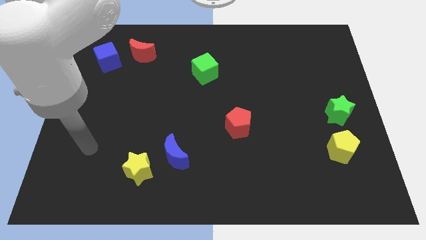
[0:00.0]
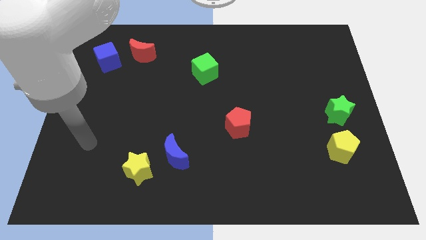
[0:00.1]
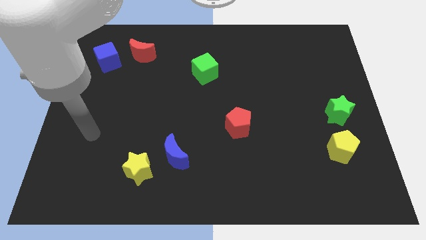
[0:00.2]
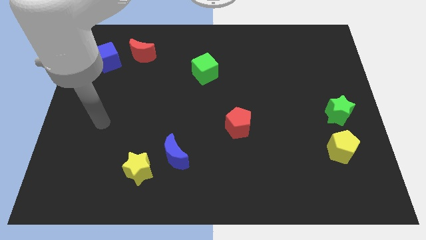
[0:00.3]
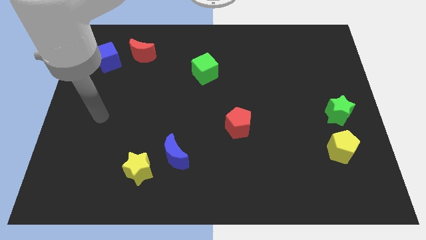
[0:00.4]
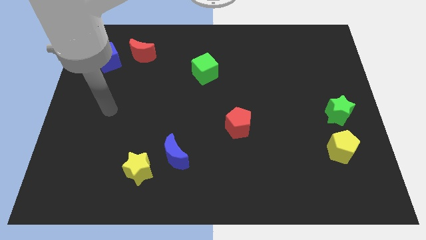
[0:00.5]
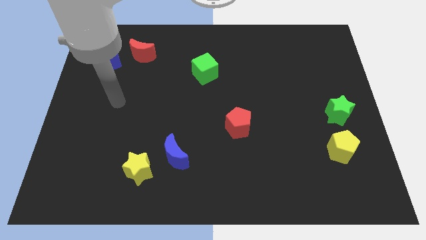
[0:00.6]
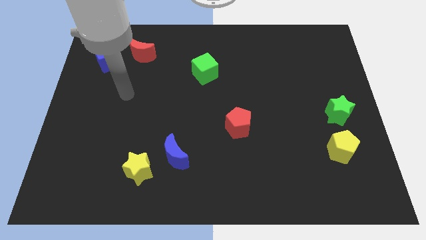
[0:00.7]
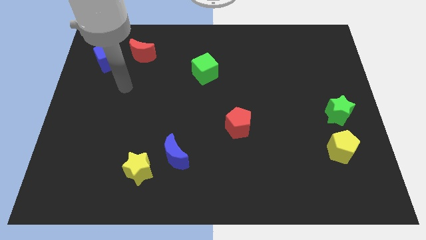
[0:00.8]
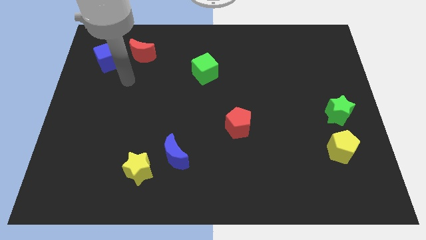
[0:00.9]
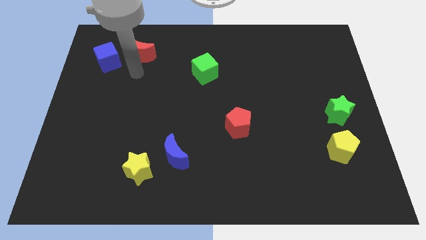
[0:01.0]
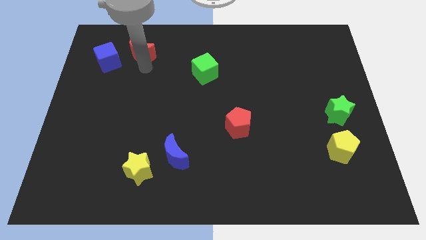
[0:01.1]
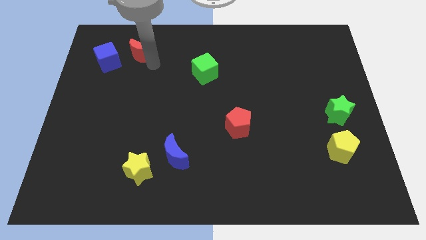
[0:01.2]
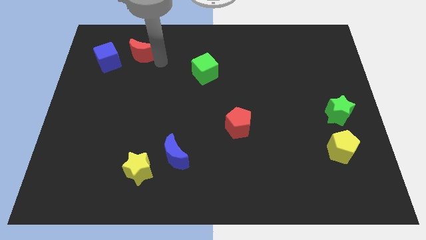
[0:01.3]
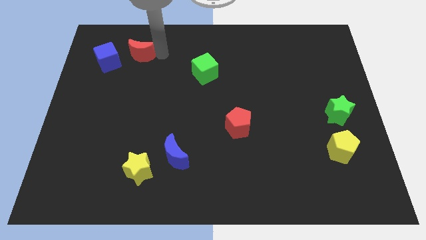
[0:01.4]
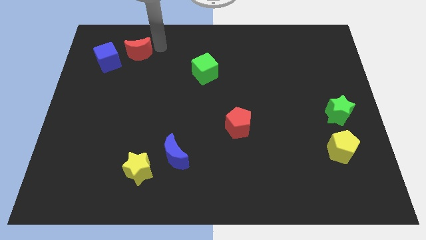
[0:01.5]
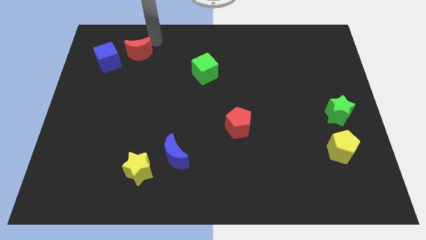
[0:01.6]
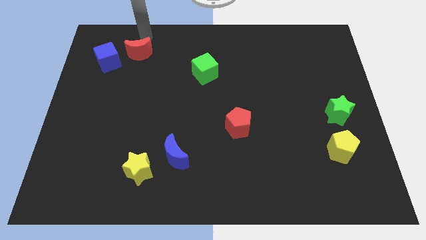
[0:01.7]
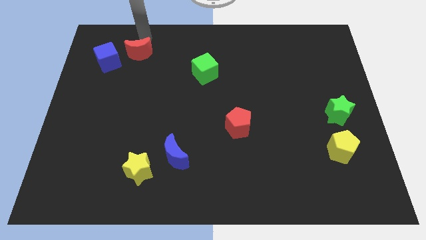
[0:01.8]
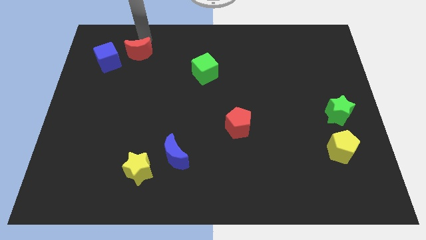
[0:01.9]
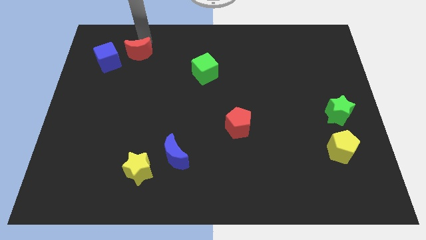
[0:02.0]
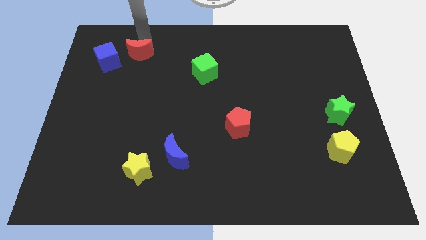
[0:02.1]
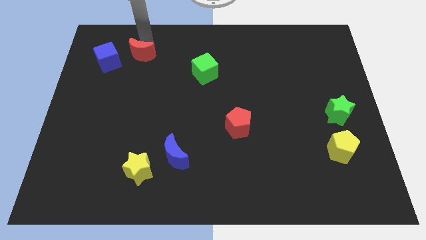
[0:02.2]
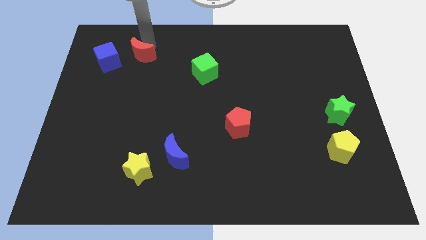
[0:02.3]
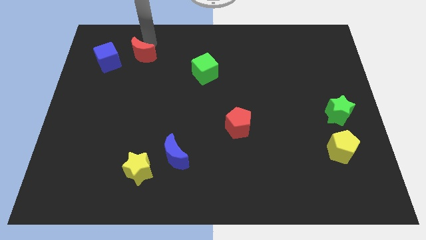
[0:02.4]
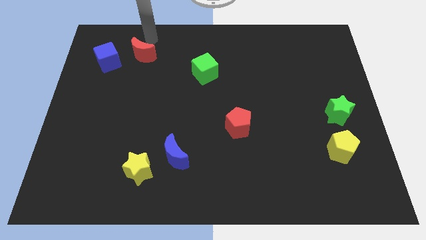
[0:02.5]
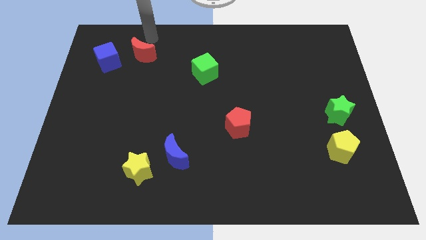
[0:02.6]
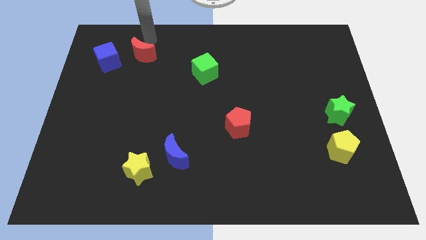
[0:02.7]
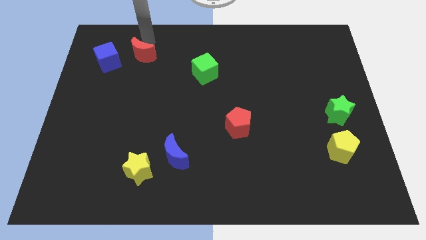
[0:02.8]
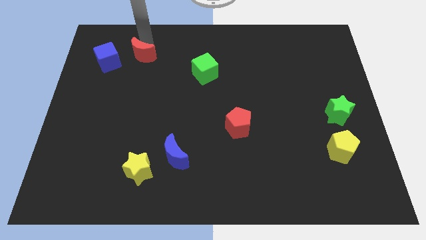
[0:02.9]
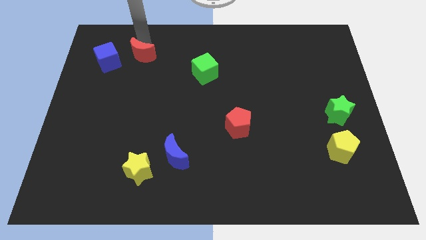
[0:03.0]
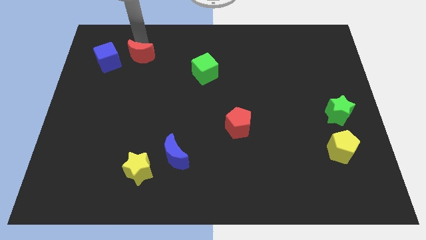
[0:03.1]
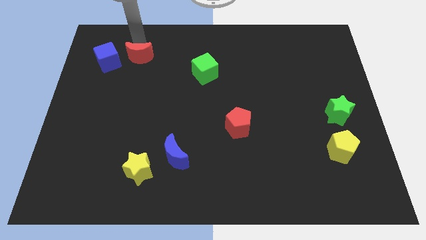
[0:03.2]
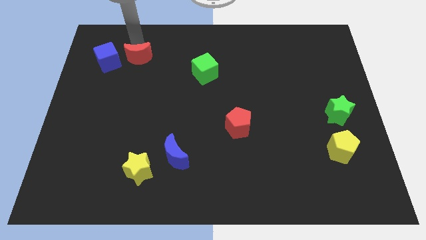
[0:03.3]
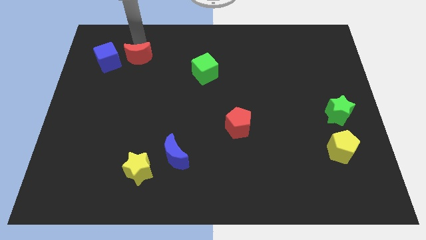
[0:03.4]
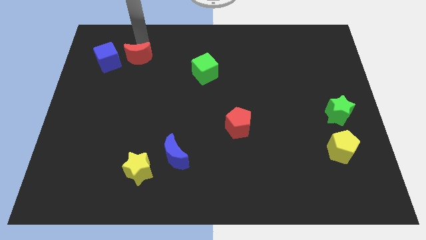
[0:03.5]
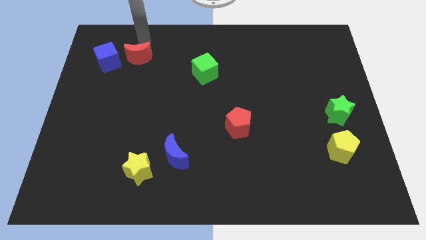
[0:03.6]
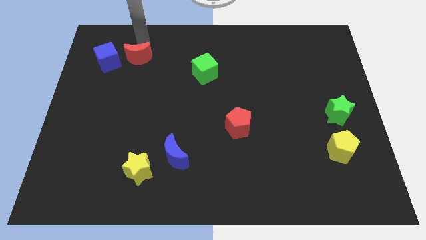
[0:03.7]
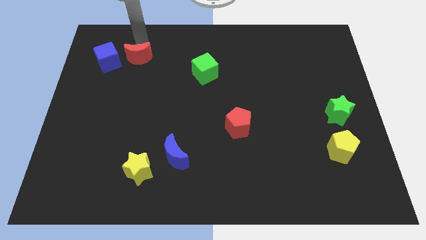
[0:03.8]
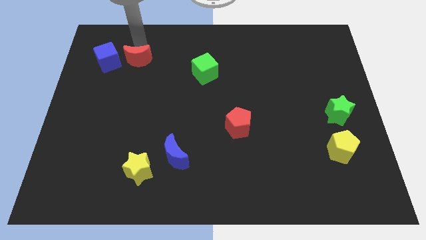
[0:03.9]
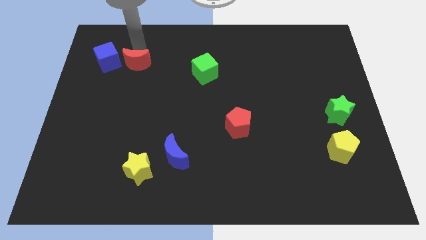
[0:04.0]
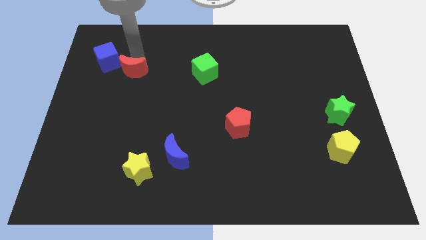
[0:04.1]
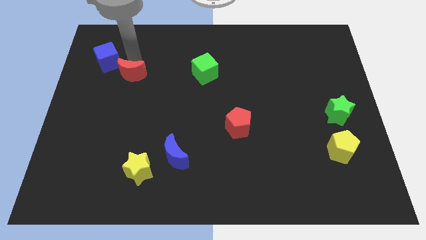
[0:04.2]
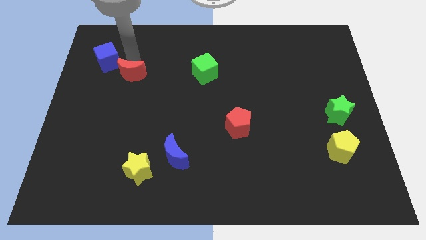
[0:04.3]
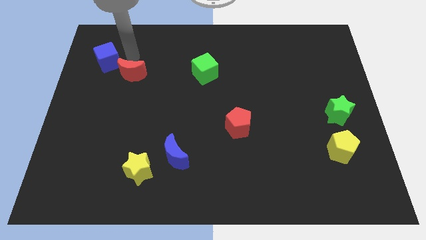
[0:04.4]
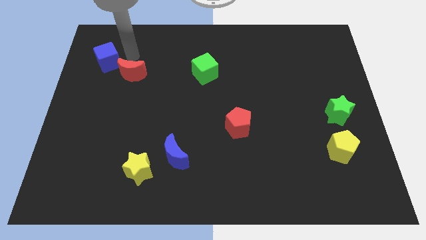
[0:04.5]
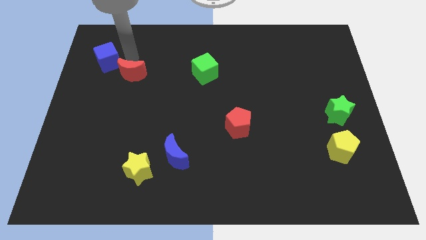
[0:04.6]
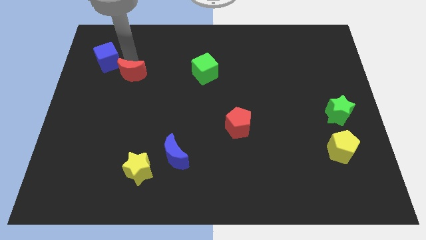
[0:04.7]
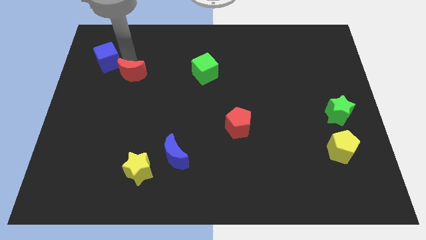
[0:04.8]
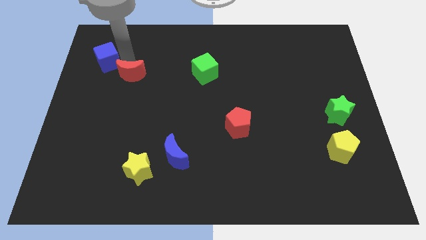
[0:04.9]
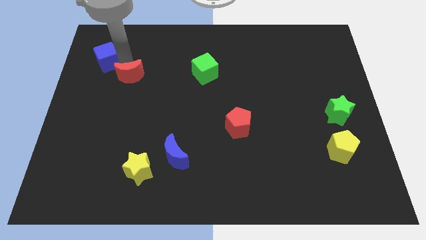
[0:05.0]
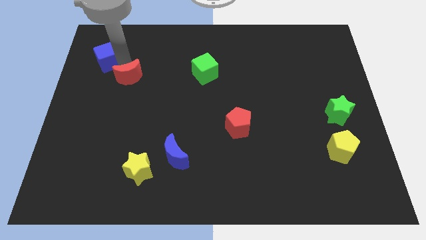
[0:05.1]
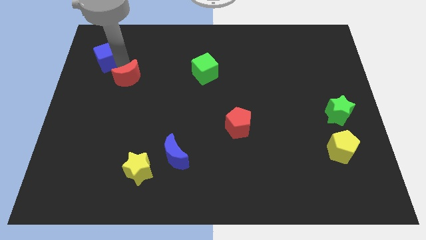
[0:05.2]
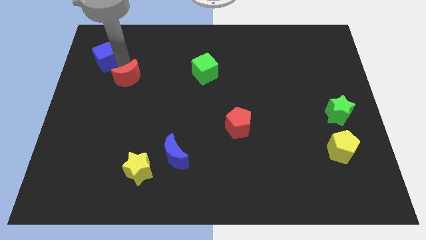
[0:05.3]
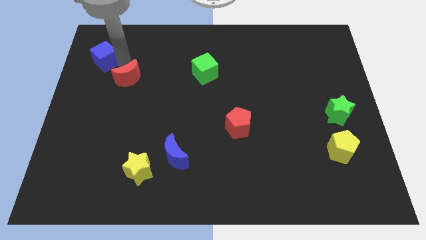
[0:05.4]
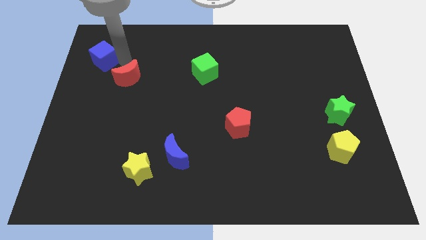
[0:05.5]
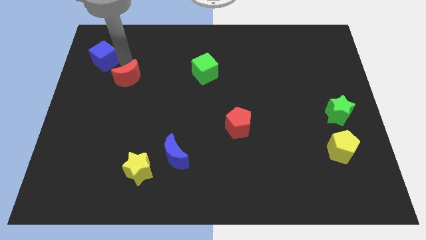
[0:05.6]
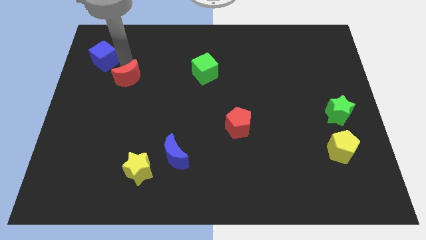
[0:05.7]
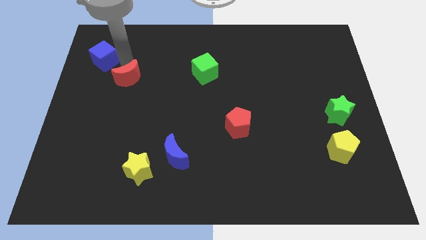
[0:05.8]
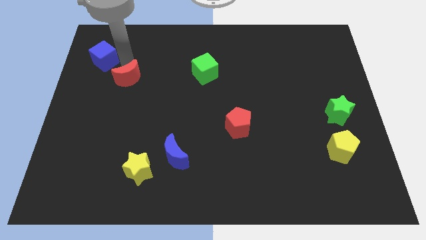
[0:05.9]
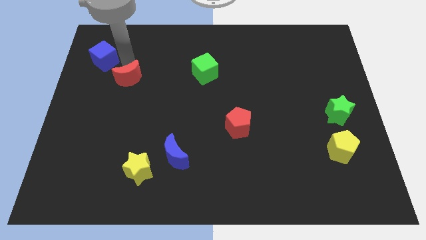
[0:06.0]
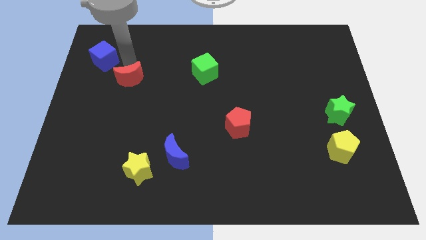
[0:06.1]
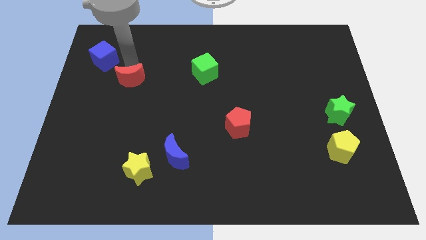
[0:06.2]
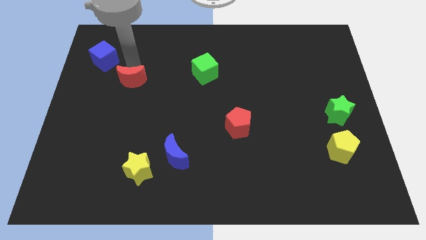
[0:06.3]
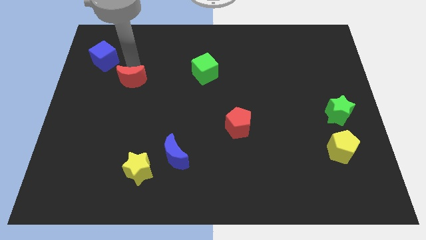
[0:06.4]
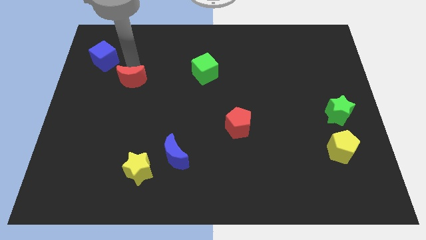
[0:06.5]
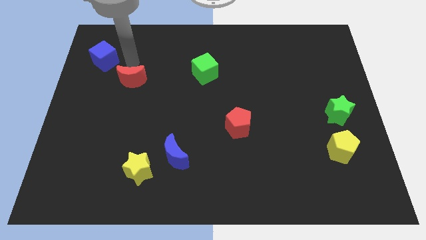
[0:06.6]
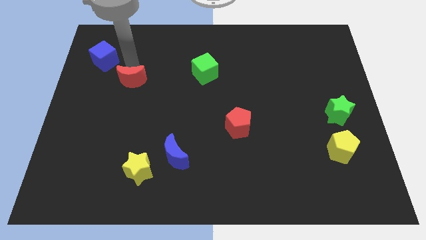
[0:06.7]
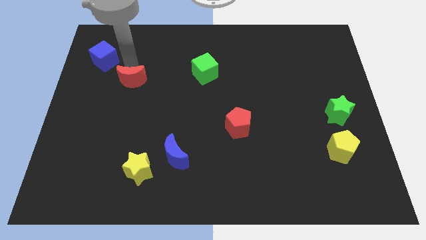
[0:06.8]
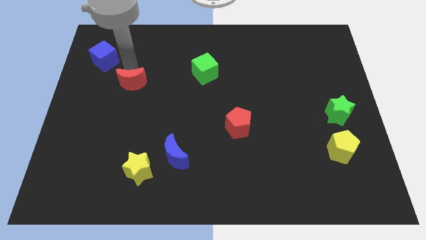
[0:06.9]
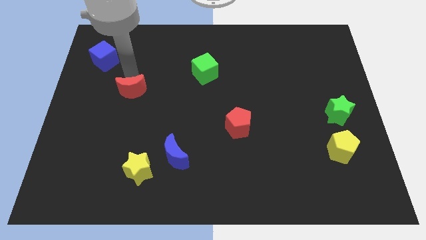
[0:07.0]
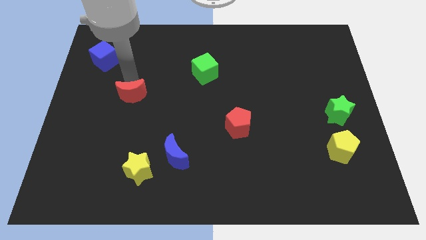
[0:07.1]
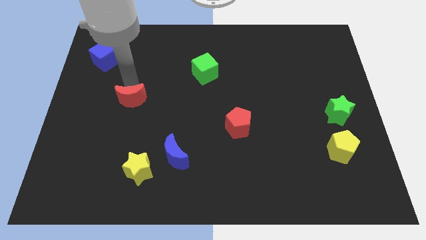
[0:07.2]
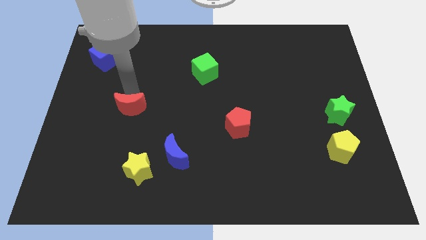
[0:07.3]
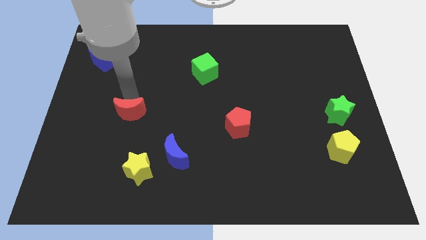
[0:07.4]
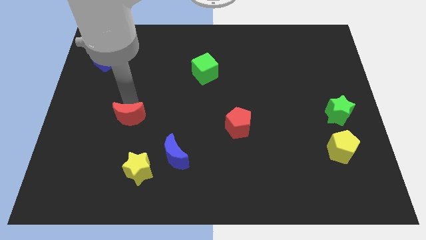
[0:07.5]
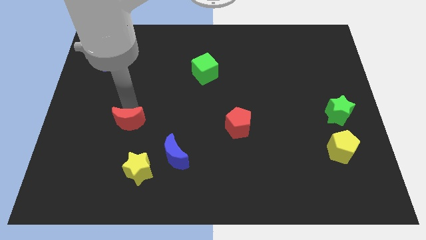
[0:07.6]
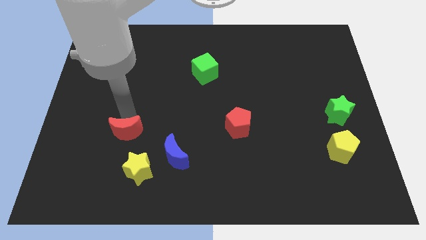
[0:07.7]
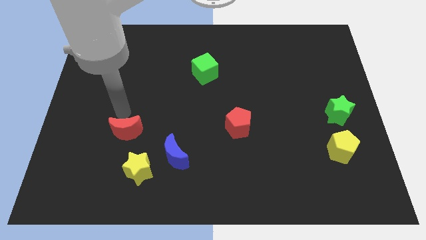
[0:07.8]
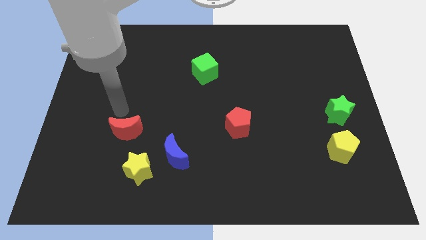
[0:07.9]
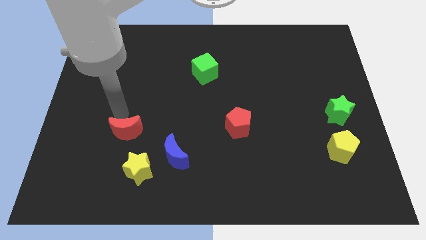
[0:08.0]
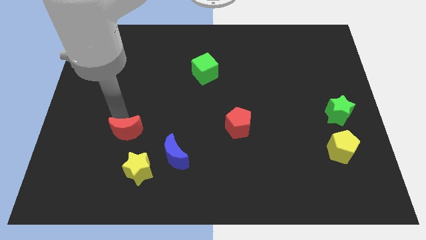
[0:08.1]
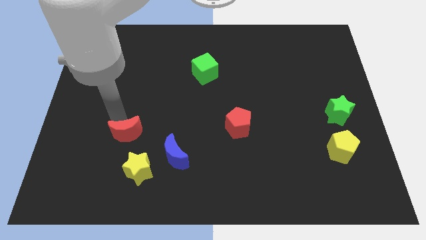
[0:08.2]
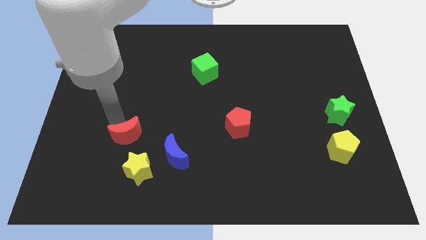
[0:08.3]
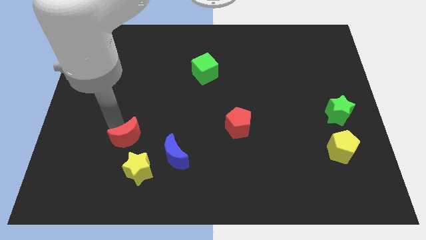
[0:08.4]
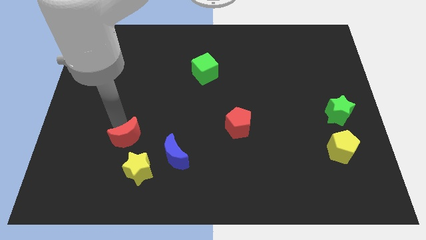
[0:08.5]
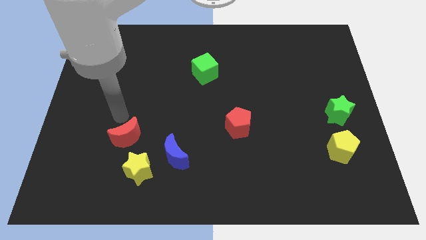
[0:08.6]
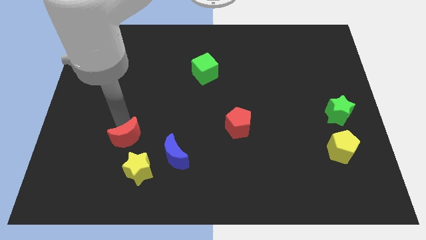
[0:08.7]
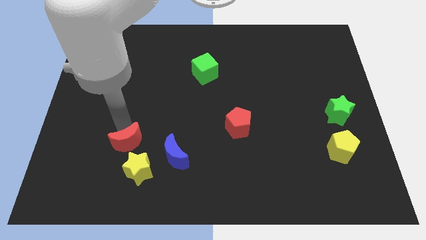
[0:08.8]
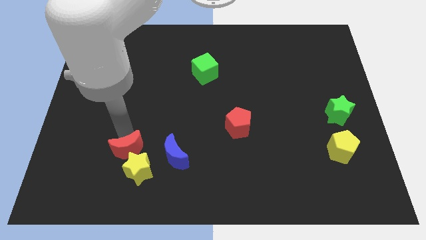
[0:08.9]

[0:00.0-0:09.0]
slide the red moon close to the yellow star
